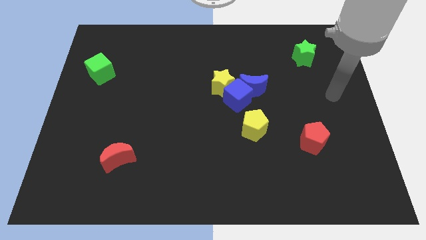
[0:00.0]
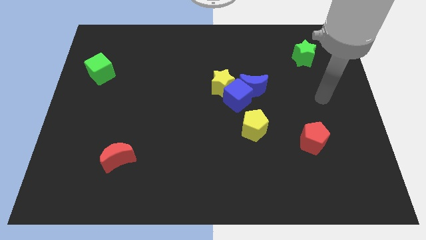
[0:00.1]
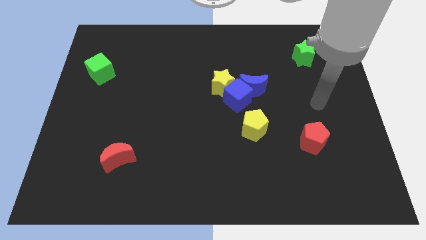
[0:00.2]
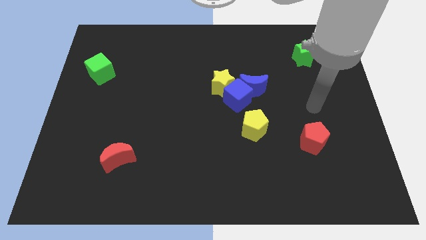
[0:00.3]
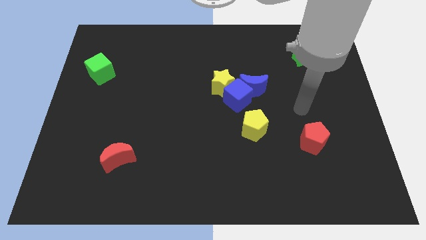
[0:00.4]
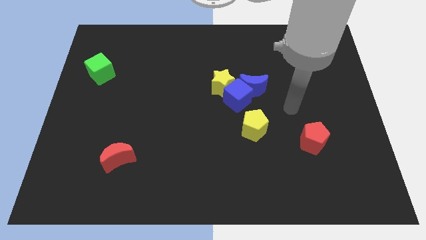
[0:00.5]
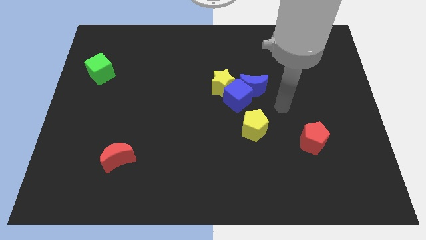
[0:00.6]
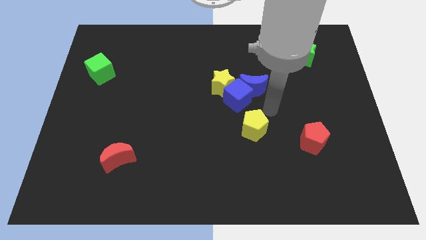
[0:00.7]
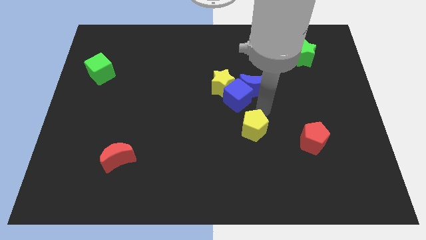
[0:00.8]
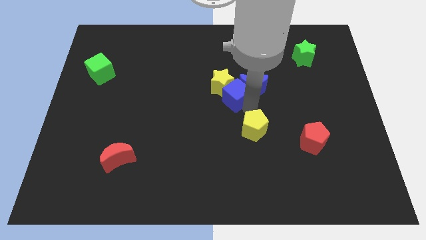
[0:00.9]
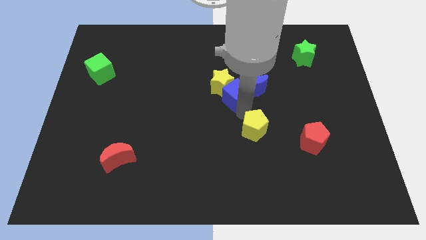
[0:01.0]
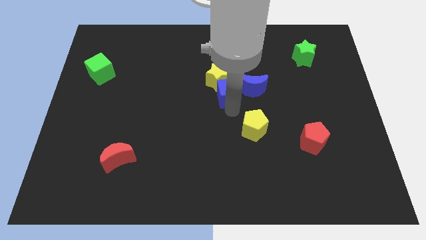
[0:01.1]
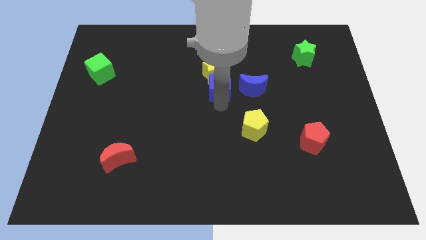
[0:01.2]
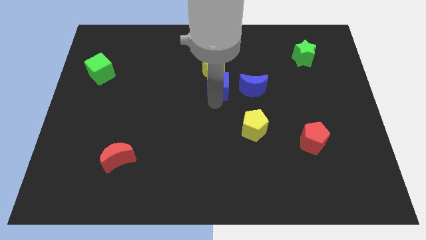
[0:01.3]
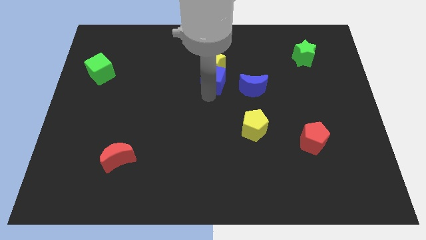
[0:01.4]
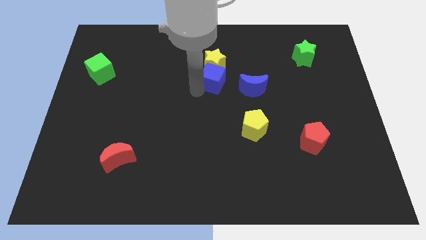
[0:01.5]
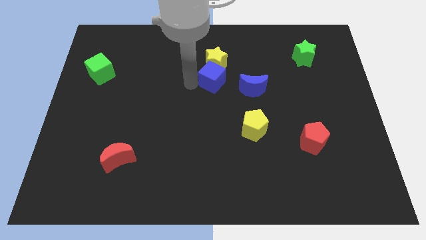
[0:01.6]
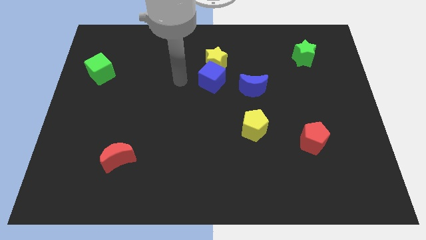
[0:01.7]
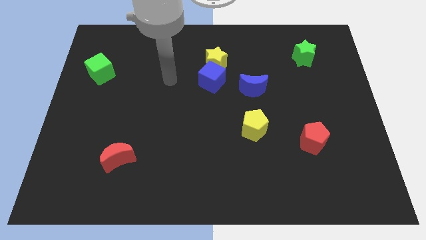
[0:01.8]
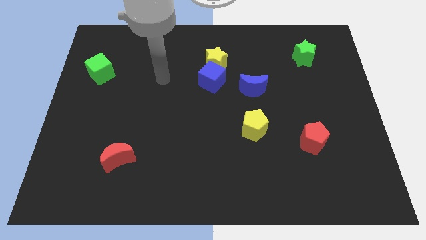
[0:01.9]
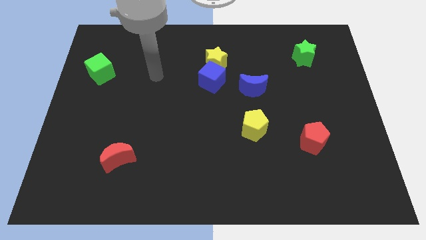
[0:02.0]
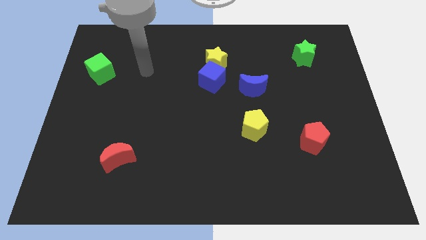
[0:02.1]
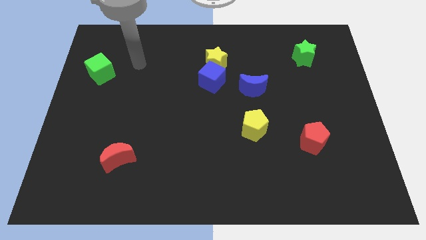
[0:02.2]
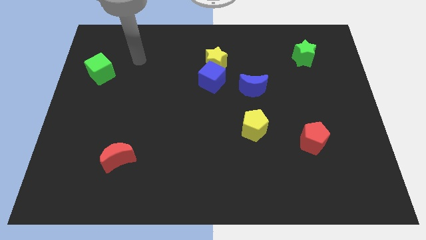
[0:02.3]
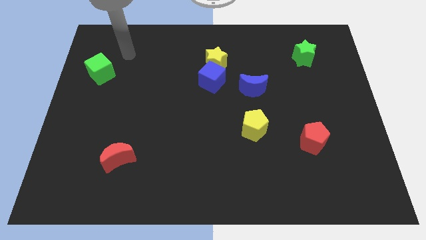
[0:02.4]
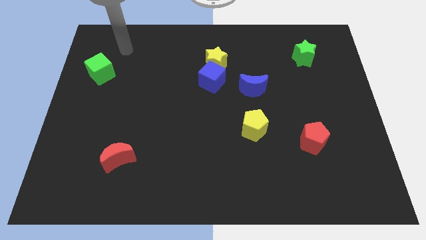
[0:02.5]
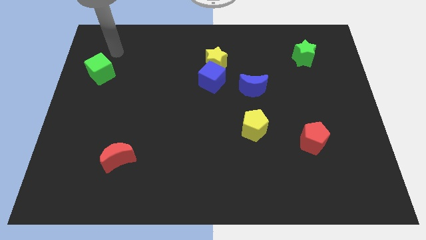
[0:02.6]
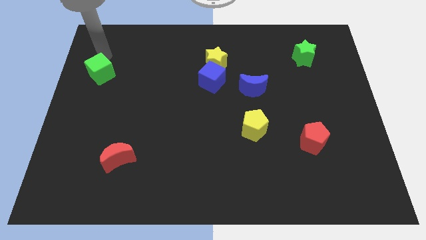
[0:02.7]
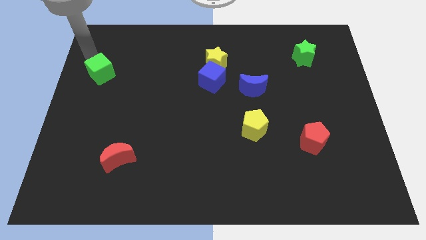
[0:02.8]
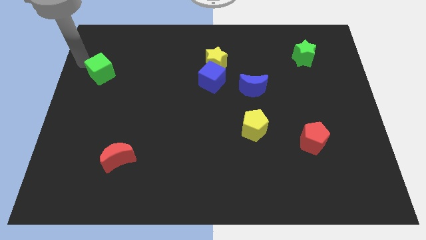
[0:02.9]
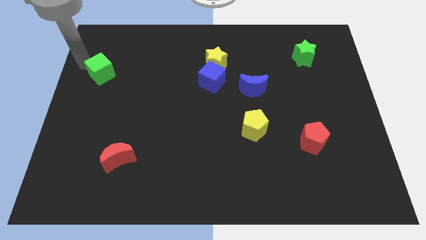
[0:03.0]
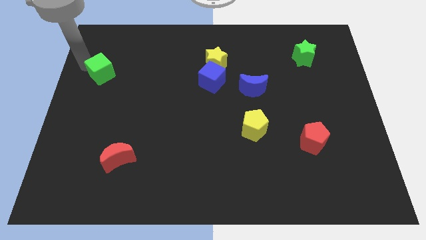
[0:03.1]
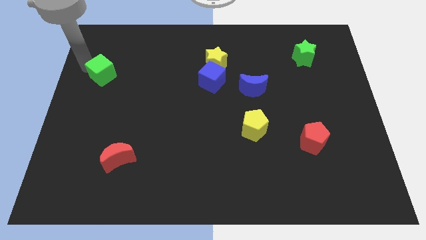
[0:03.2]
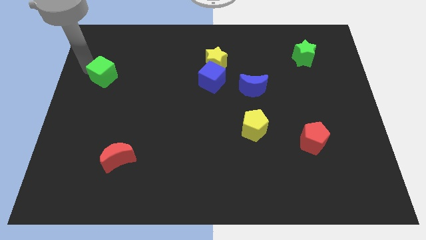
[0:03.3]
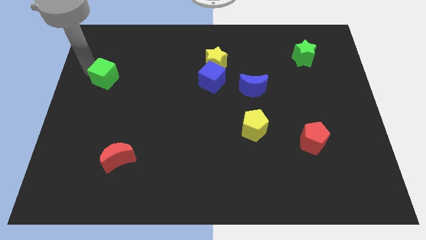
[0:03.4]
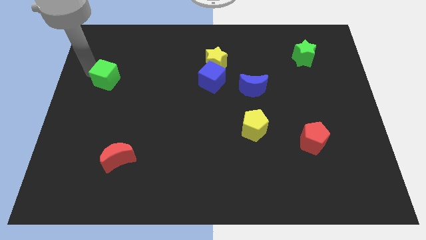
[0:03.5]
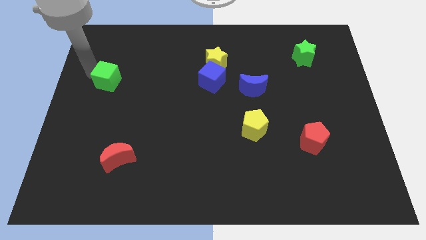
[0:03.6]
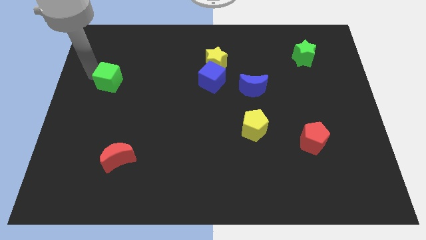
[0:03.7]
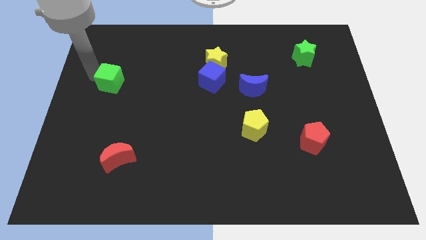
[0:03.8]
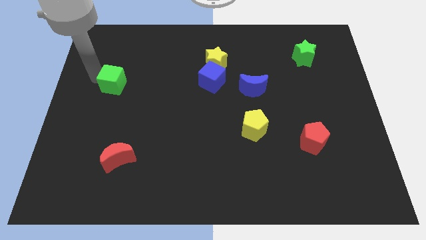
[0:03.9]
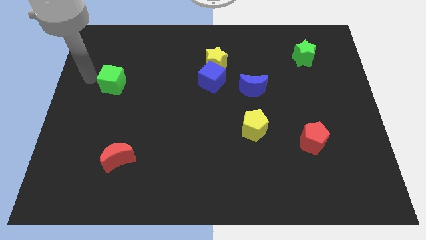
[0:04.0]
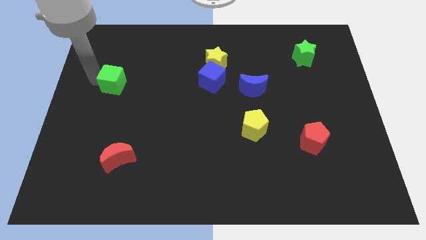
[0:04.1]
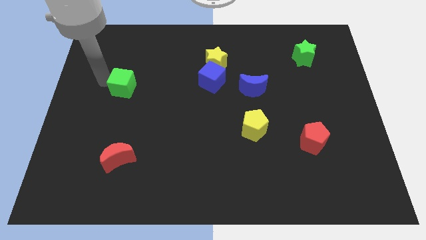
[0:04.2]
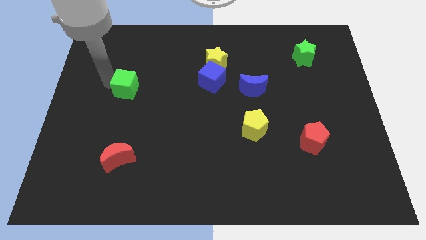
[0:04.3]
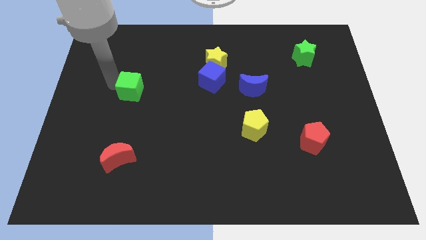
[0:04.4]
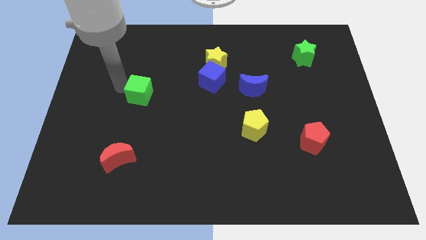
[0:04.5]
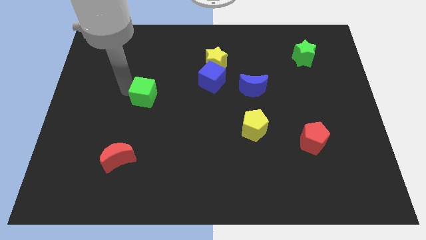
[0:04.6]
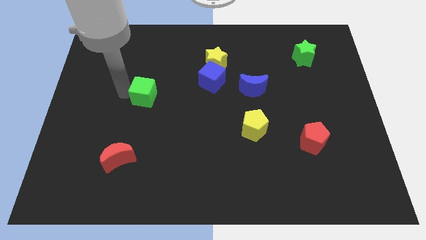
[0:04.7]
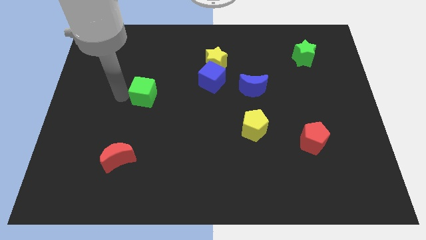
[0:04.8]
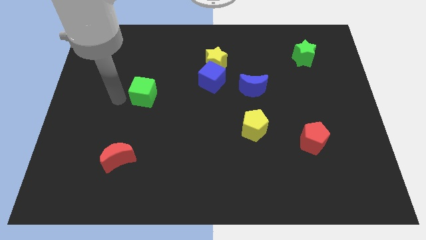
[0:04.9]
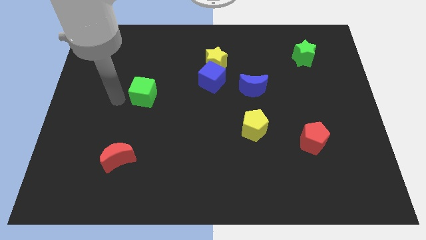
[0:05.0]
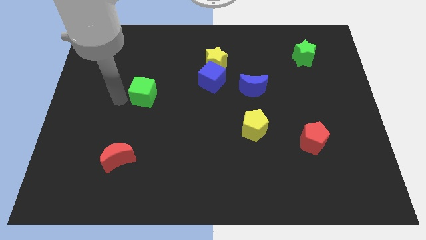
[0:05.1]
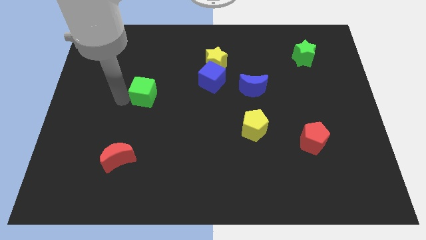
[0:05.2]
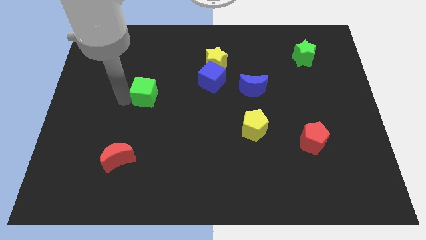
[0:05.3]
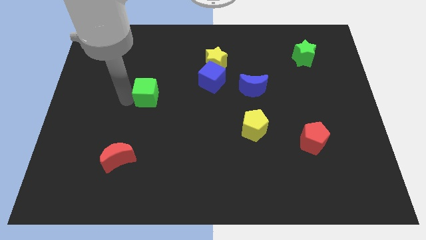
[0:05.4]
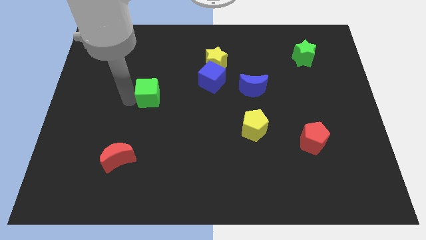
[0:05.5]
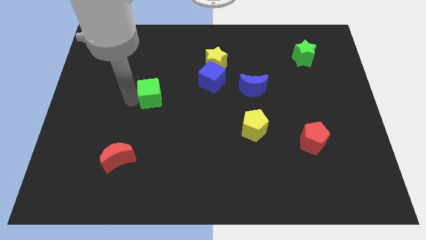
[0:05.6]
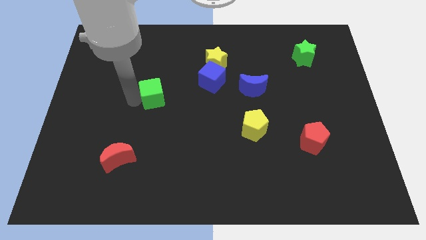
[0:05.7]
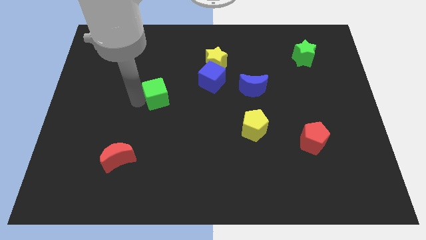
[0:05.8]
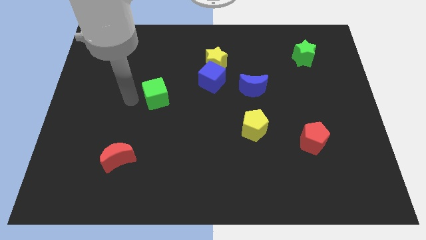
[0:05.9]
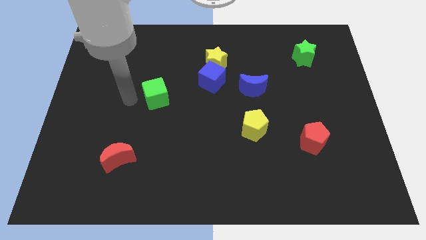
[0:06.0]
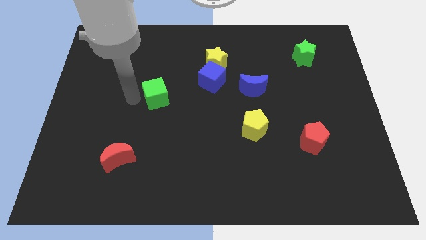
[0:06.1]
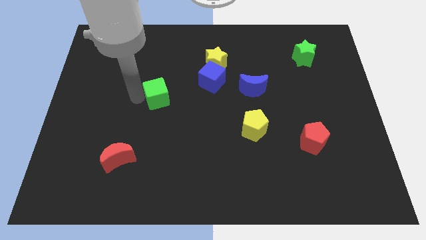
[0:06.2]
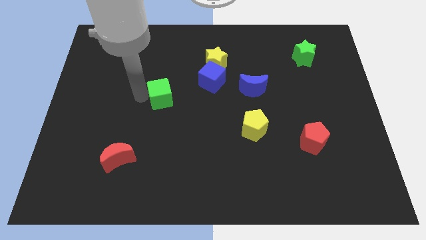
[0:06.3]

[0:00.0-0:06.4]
push the green cube to the center

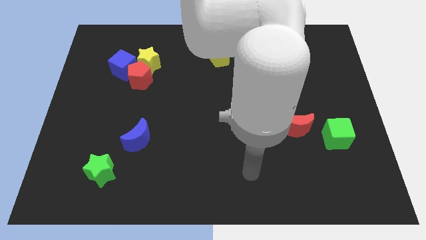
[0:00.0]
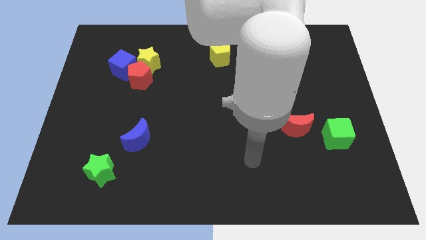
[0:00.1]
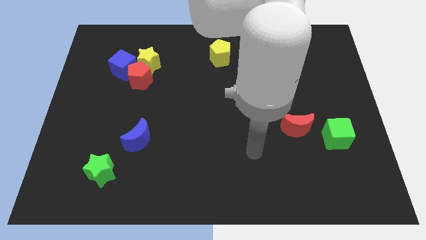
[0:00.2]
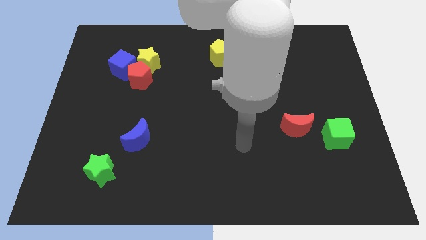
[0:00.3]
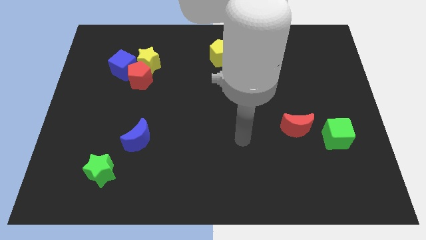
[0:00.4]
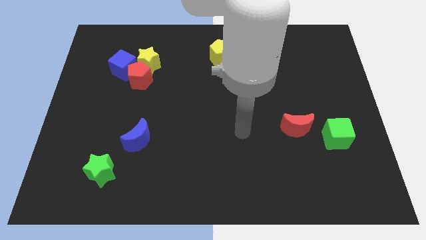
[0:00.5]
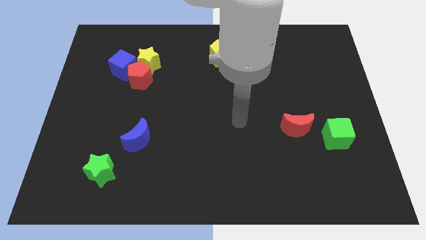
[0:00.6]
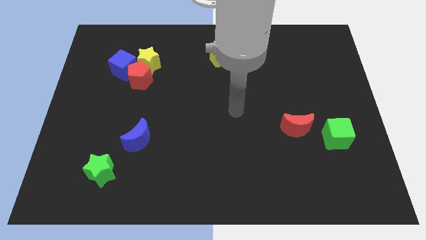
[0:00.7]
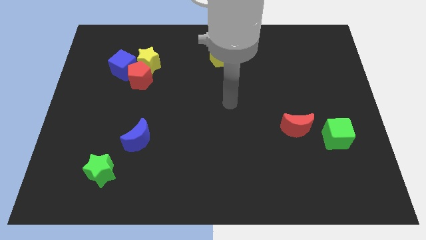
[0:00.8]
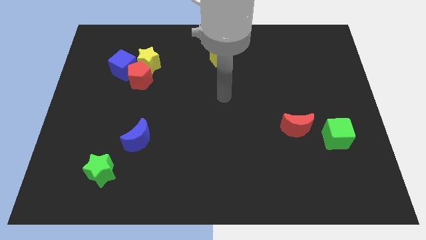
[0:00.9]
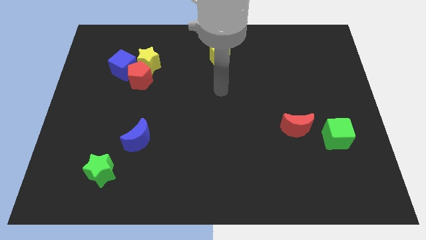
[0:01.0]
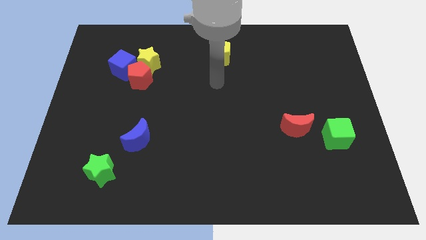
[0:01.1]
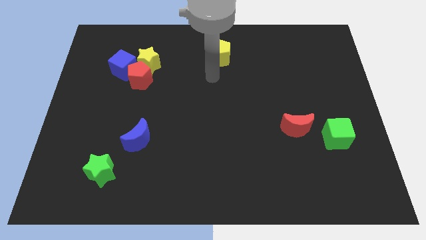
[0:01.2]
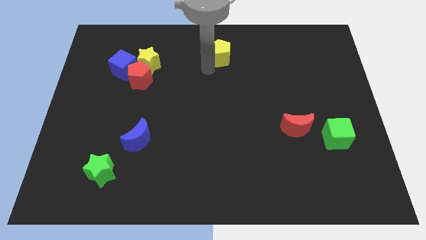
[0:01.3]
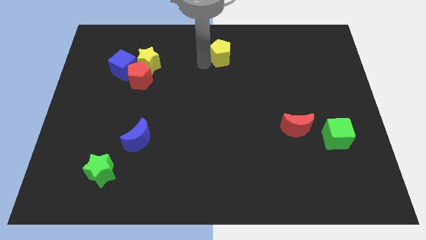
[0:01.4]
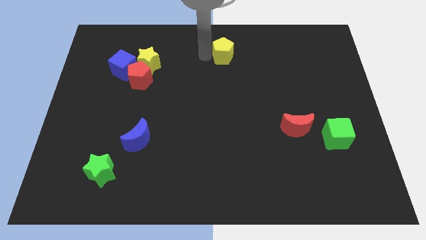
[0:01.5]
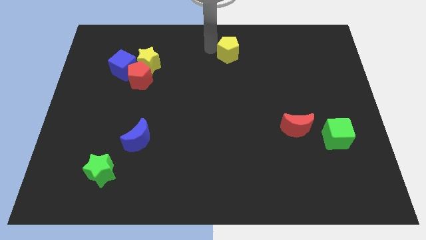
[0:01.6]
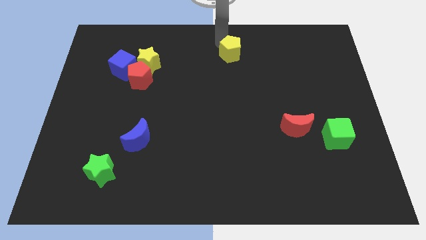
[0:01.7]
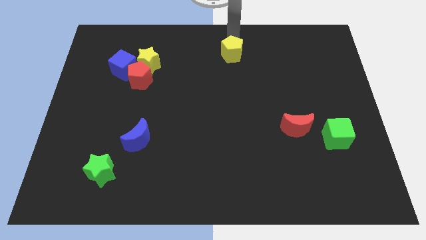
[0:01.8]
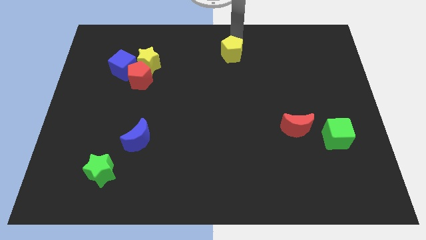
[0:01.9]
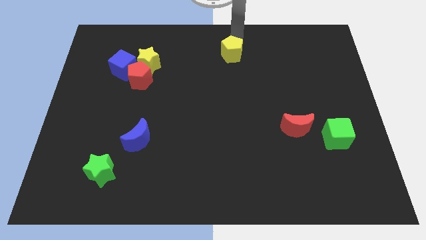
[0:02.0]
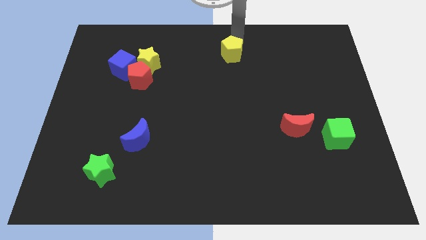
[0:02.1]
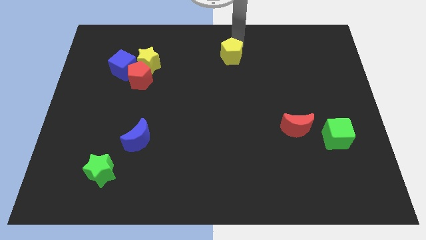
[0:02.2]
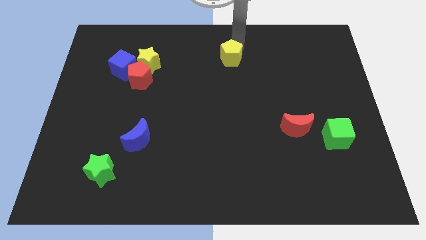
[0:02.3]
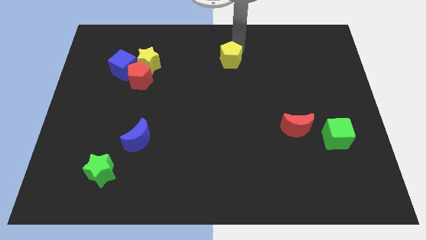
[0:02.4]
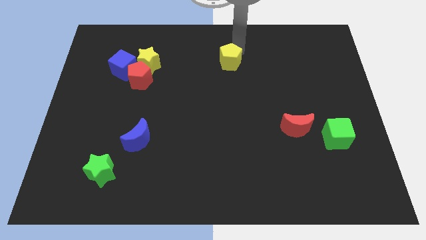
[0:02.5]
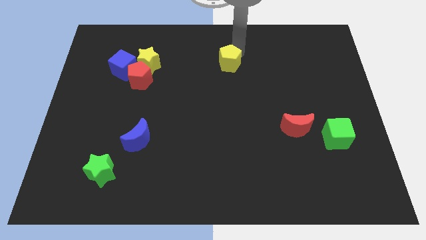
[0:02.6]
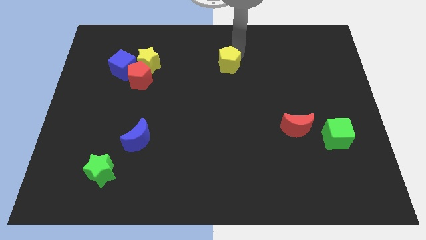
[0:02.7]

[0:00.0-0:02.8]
push the yellow pentagon to the middle
